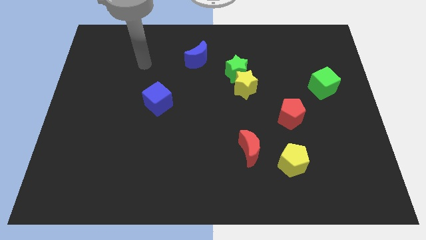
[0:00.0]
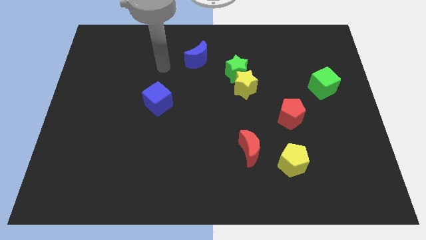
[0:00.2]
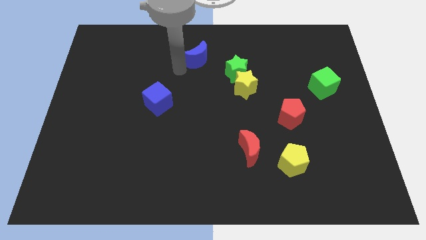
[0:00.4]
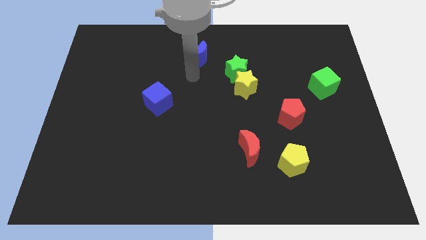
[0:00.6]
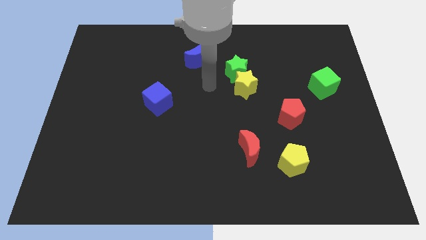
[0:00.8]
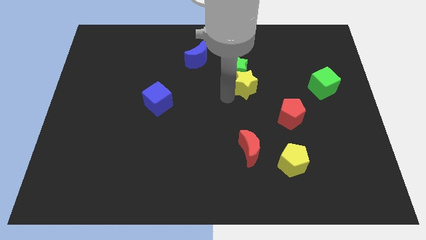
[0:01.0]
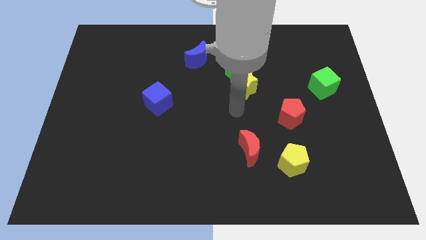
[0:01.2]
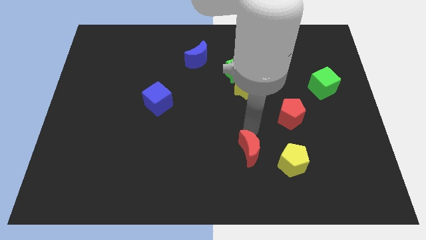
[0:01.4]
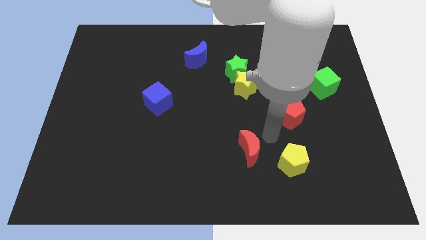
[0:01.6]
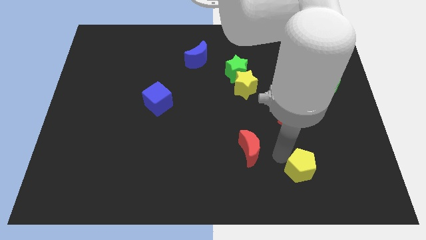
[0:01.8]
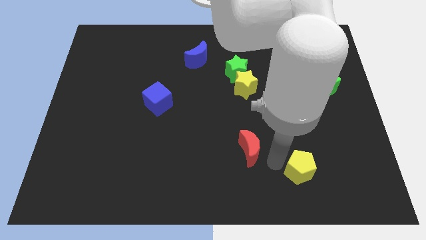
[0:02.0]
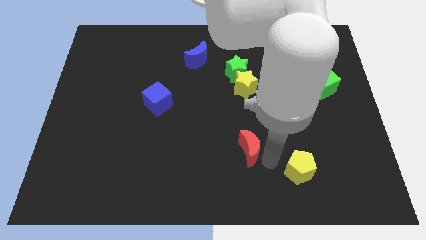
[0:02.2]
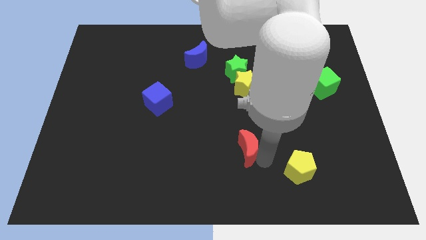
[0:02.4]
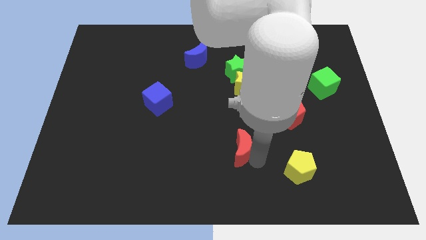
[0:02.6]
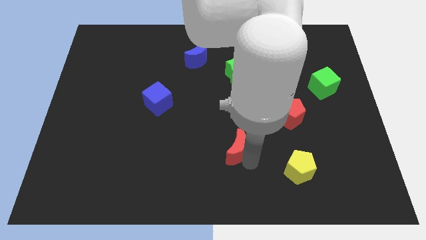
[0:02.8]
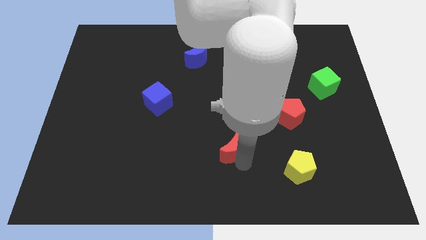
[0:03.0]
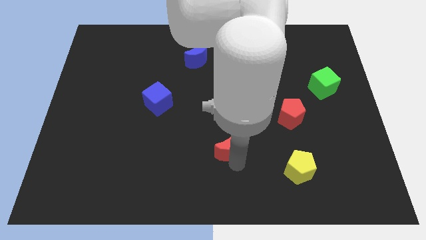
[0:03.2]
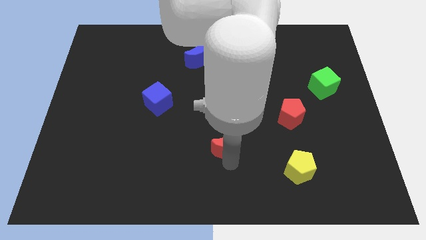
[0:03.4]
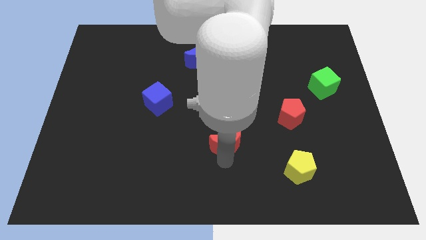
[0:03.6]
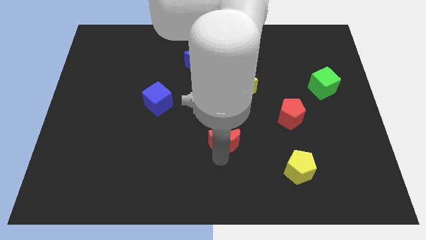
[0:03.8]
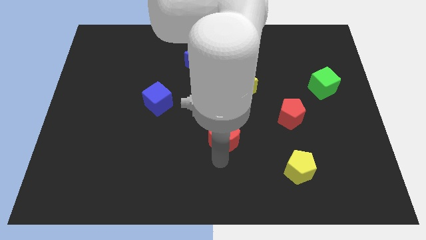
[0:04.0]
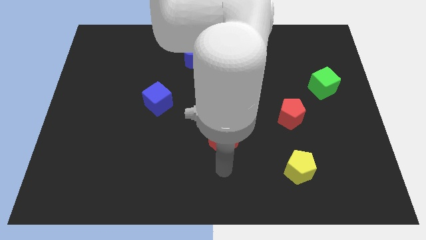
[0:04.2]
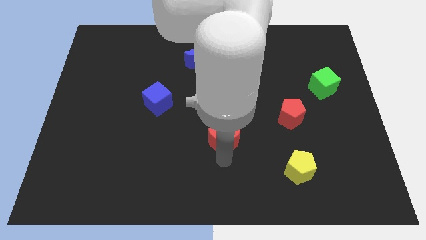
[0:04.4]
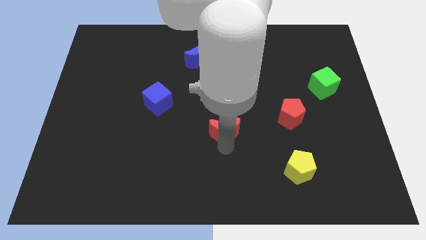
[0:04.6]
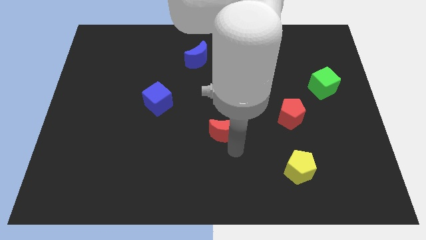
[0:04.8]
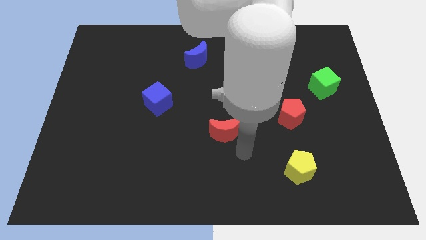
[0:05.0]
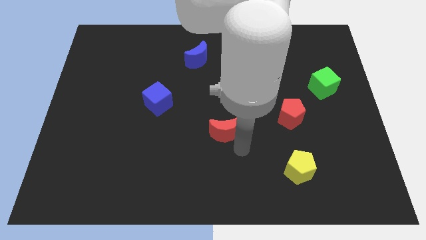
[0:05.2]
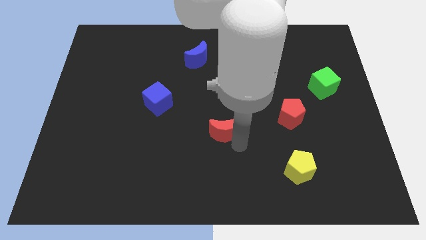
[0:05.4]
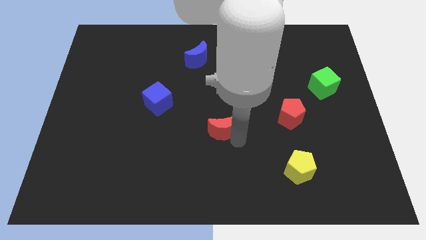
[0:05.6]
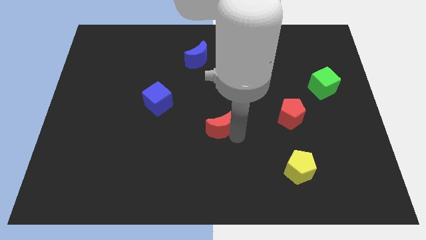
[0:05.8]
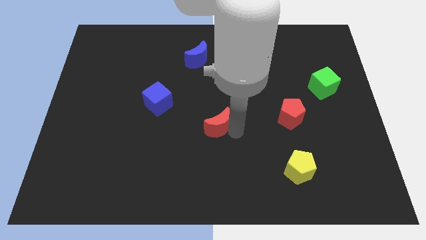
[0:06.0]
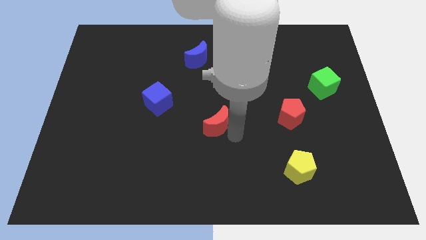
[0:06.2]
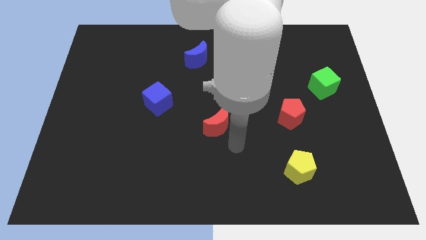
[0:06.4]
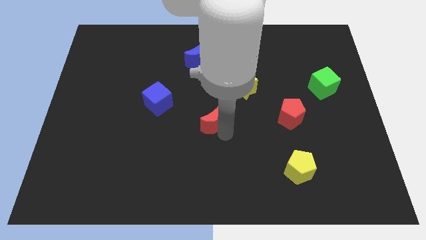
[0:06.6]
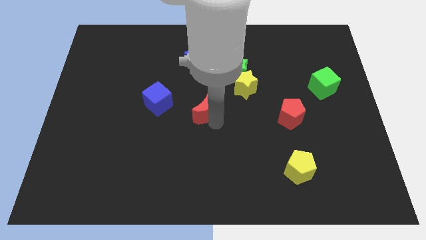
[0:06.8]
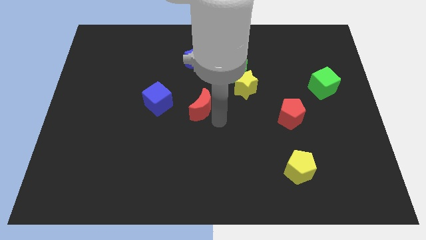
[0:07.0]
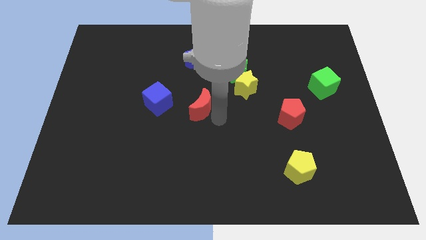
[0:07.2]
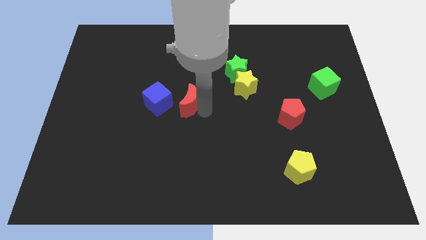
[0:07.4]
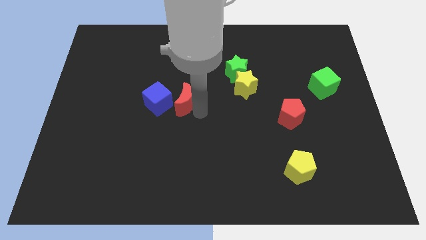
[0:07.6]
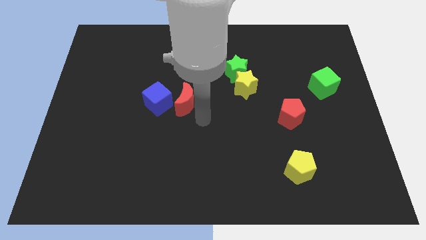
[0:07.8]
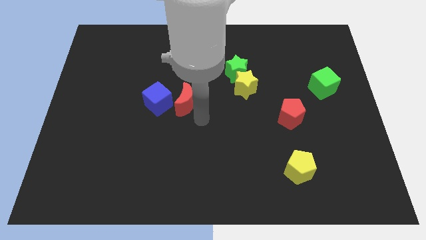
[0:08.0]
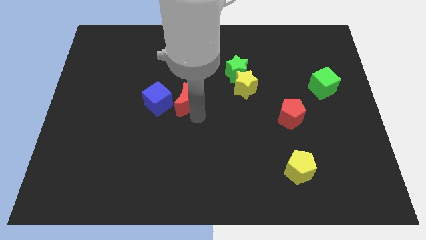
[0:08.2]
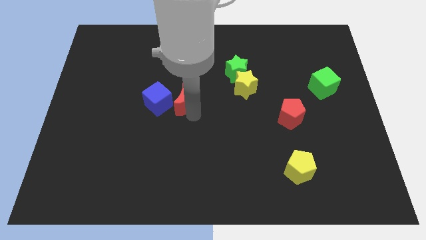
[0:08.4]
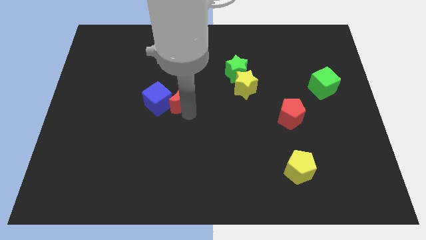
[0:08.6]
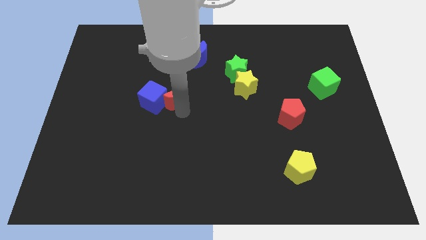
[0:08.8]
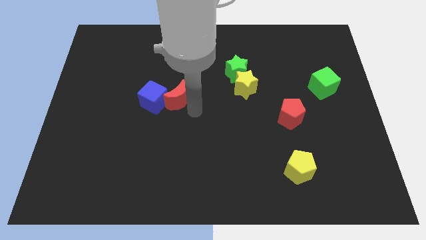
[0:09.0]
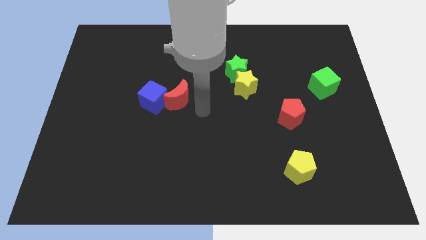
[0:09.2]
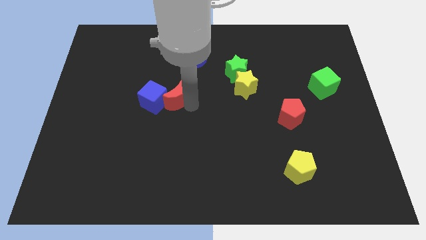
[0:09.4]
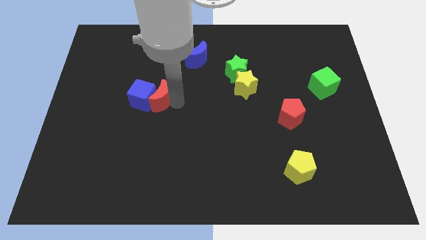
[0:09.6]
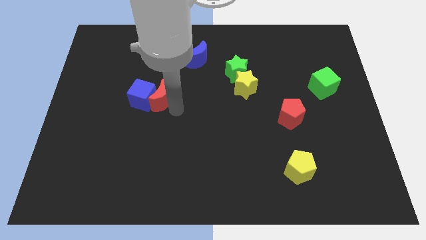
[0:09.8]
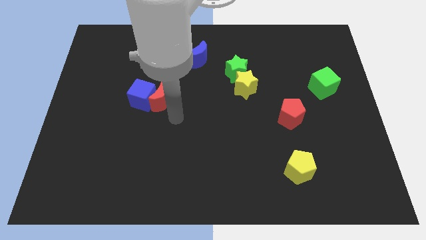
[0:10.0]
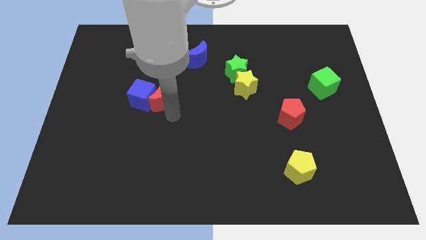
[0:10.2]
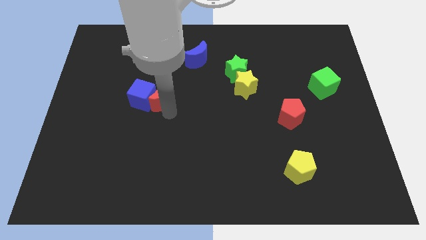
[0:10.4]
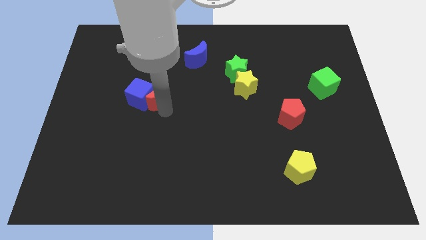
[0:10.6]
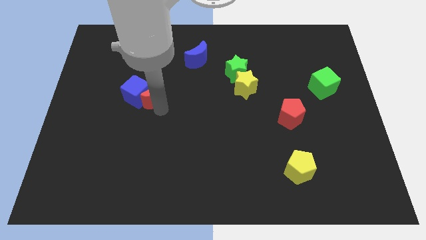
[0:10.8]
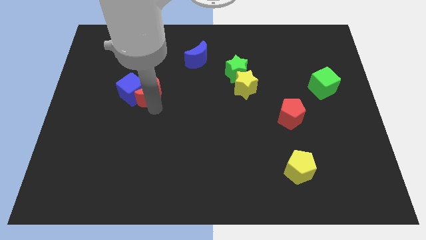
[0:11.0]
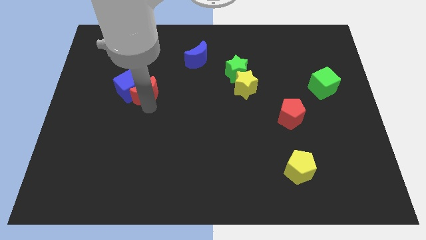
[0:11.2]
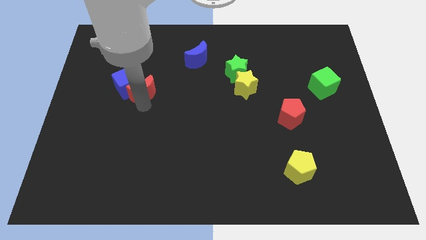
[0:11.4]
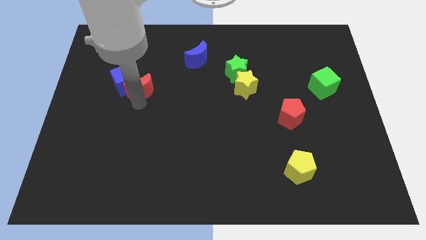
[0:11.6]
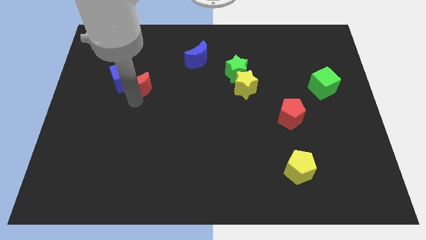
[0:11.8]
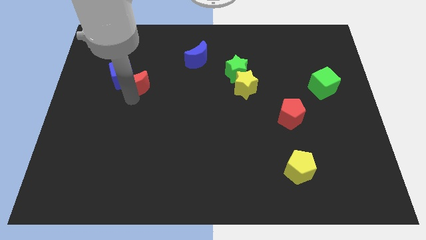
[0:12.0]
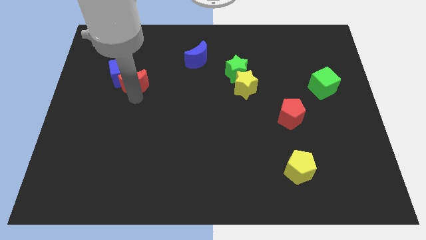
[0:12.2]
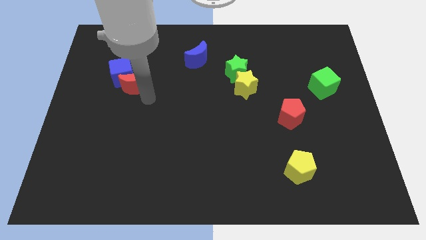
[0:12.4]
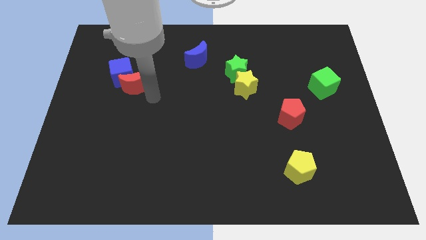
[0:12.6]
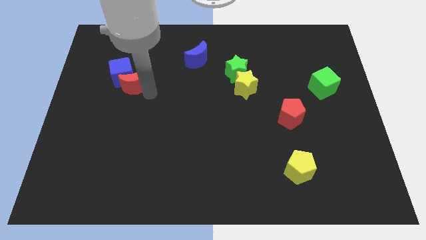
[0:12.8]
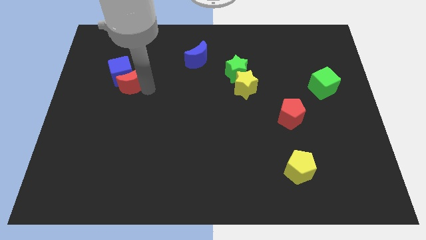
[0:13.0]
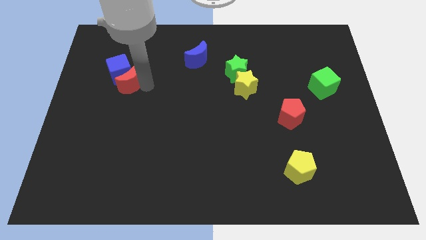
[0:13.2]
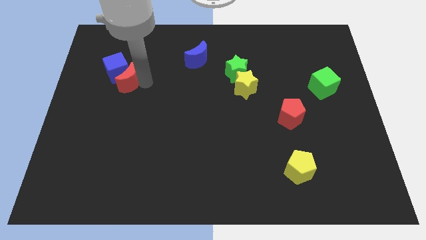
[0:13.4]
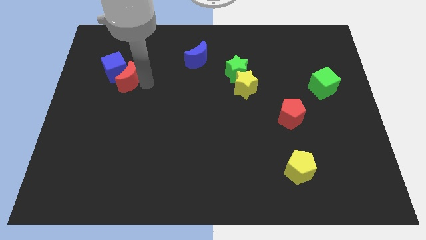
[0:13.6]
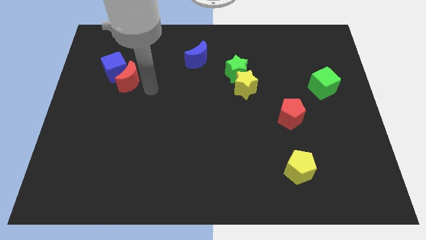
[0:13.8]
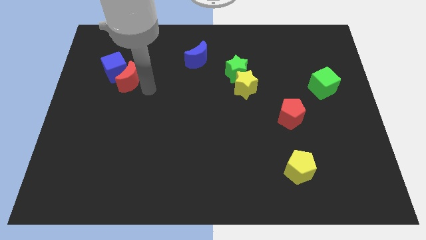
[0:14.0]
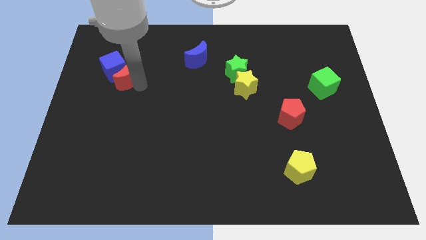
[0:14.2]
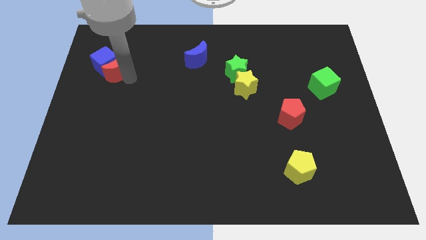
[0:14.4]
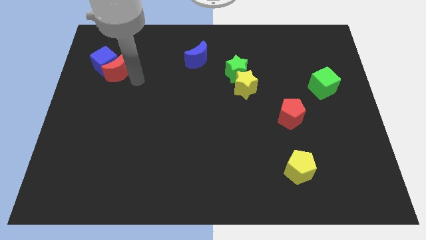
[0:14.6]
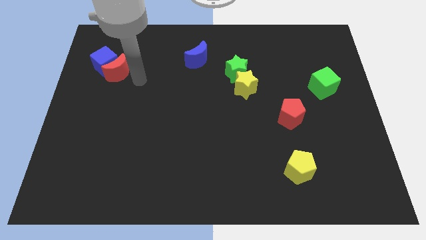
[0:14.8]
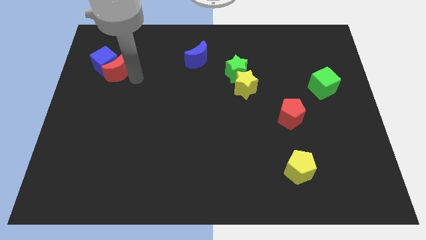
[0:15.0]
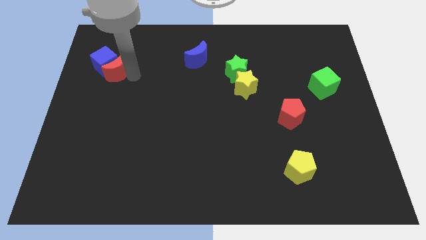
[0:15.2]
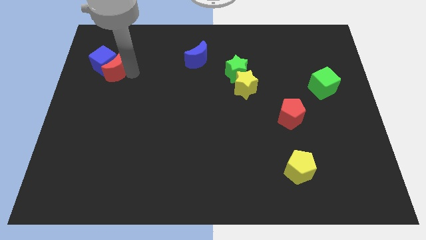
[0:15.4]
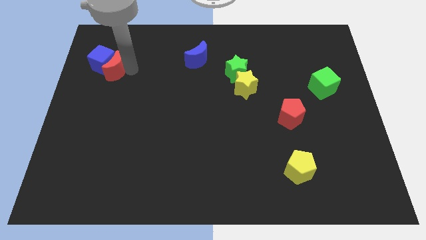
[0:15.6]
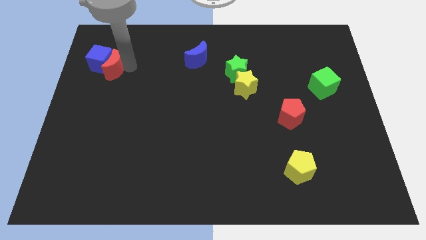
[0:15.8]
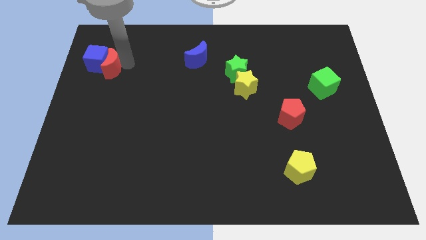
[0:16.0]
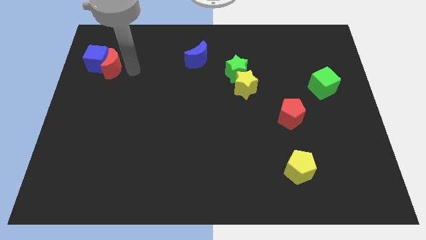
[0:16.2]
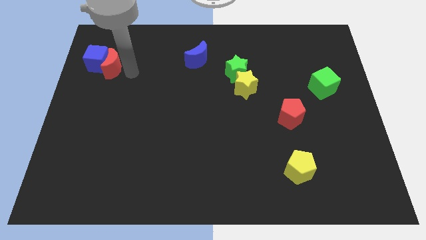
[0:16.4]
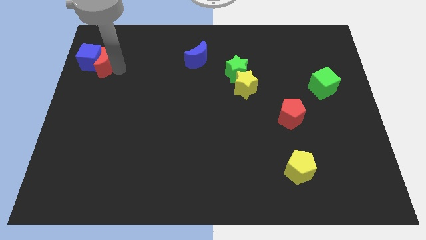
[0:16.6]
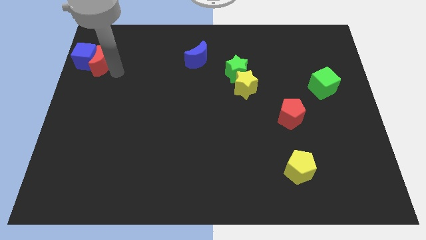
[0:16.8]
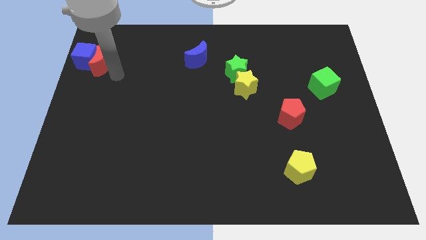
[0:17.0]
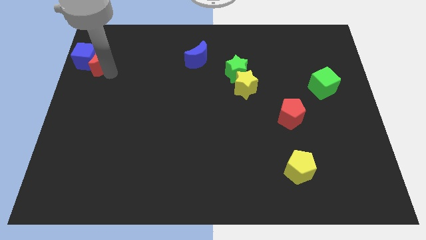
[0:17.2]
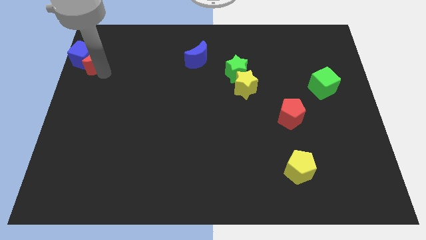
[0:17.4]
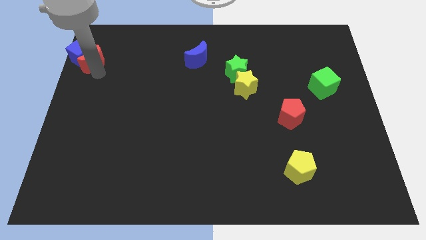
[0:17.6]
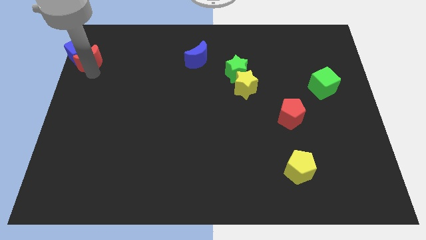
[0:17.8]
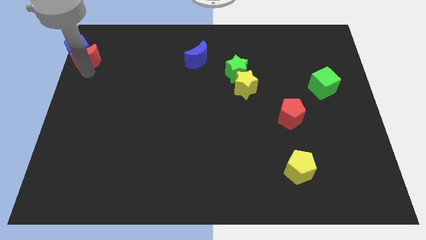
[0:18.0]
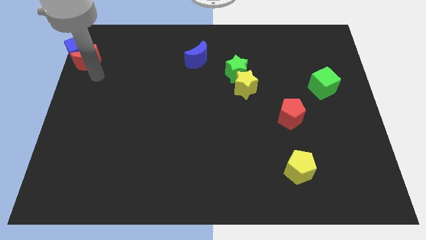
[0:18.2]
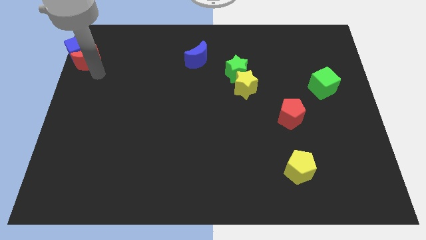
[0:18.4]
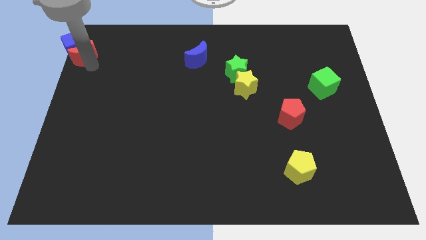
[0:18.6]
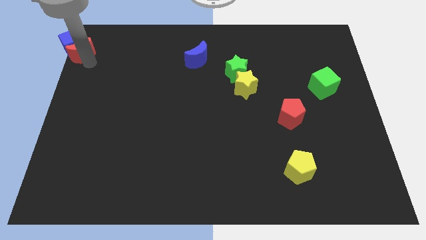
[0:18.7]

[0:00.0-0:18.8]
put the red moon to the top left of the board
